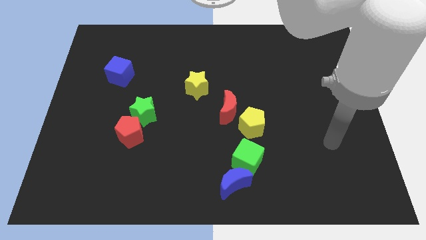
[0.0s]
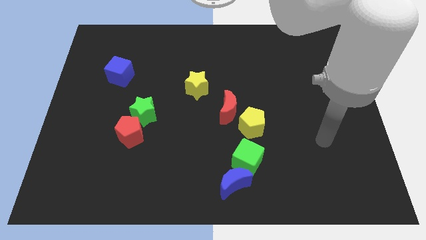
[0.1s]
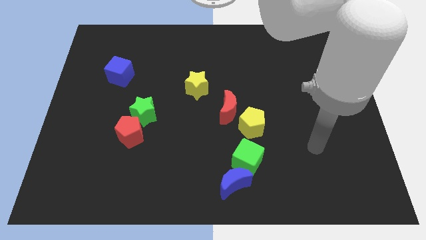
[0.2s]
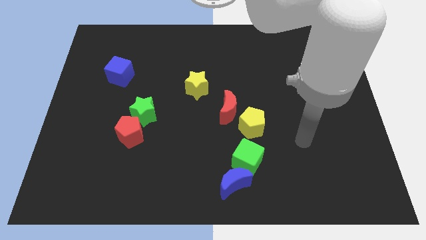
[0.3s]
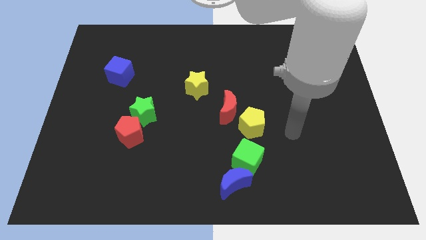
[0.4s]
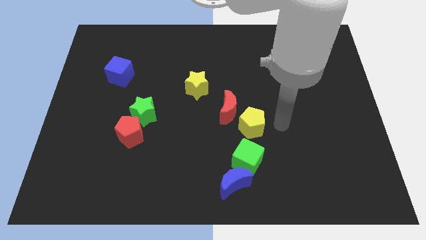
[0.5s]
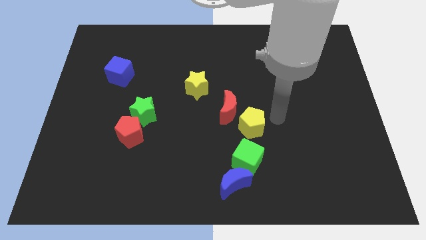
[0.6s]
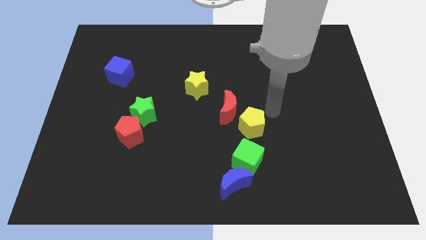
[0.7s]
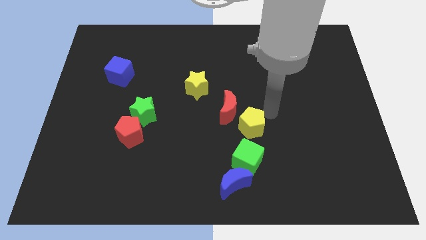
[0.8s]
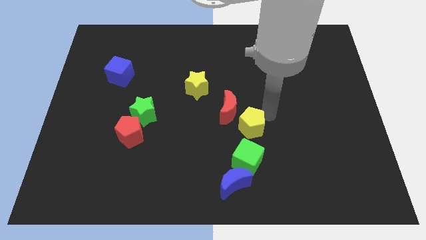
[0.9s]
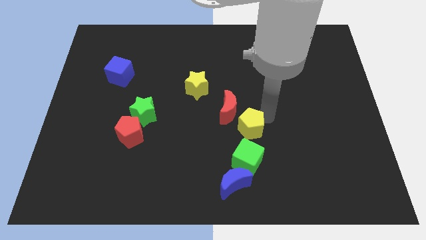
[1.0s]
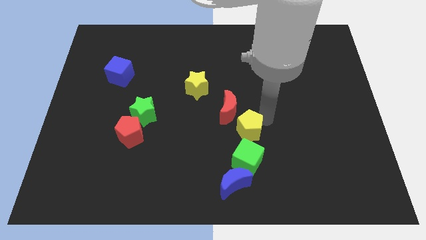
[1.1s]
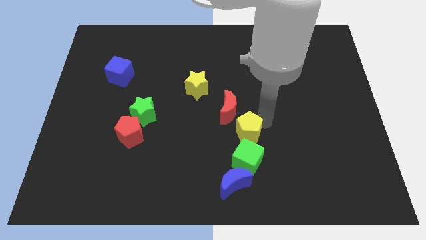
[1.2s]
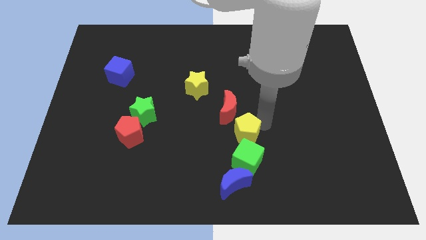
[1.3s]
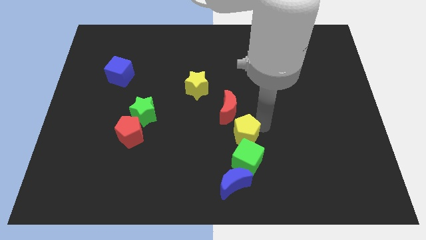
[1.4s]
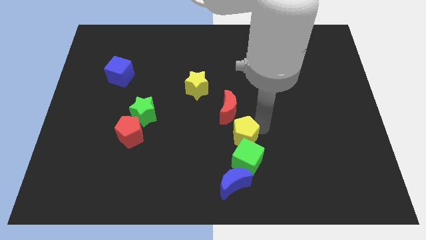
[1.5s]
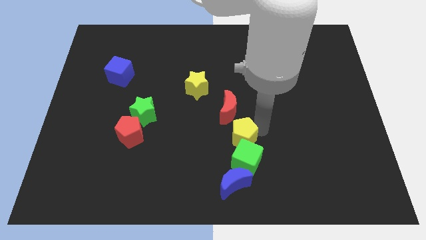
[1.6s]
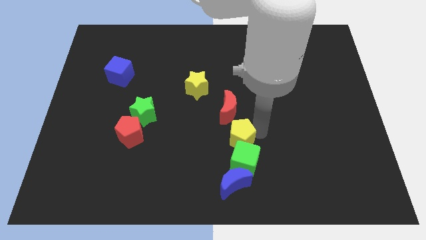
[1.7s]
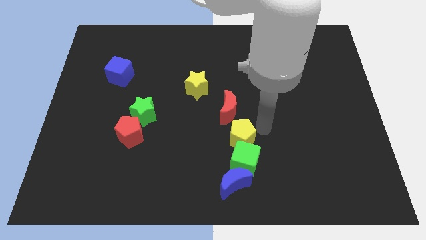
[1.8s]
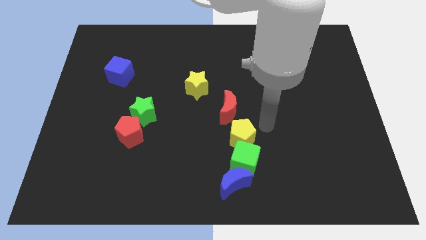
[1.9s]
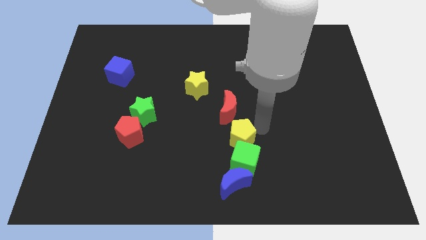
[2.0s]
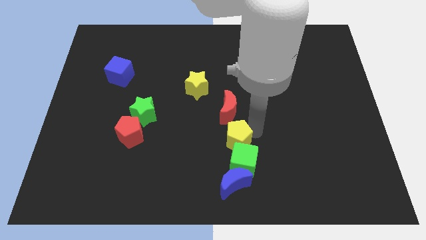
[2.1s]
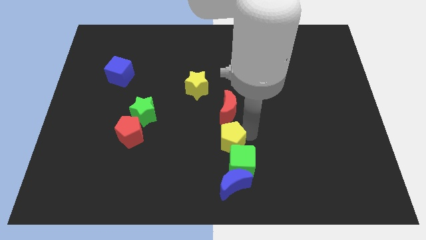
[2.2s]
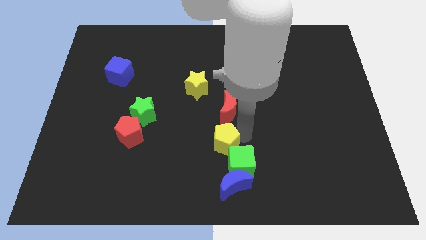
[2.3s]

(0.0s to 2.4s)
push the yellow pentagon a bit diagonally down and left

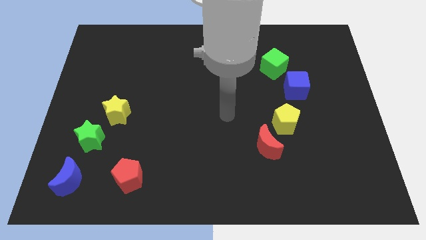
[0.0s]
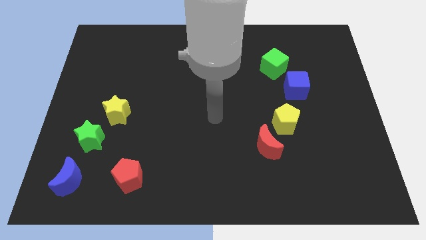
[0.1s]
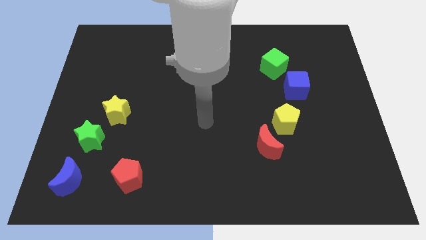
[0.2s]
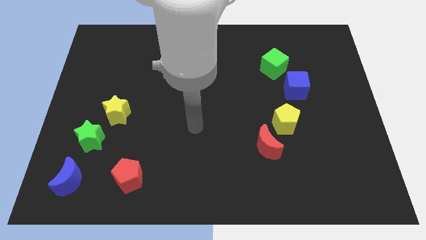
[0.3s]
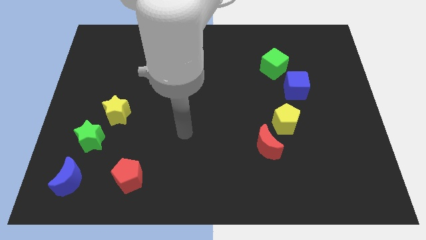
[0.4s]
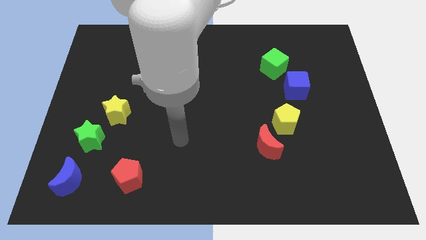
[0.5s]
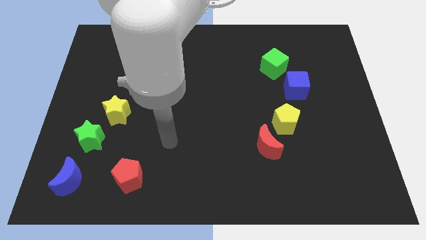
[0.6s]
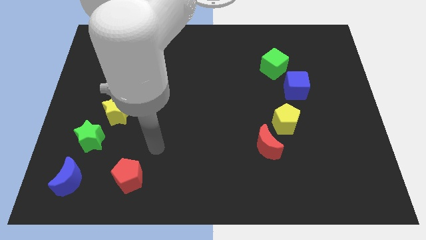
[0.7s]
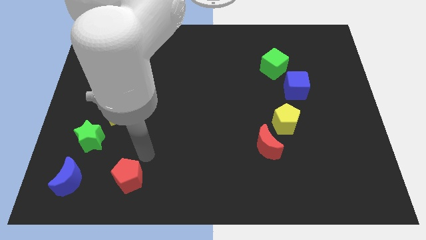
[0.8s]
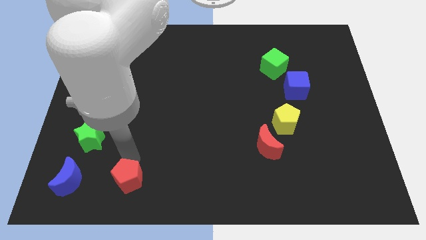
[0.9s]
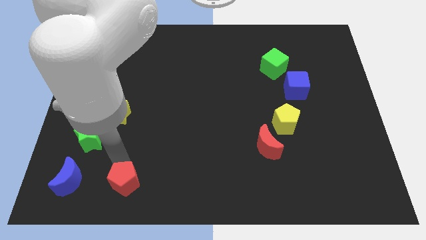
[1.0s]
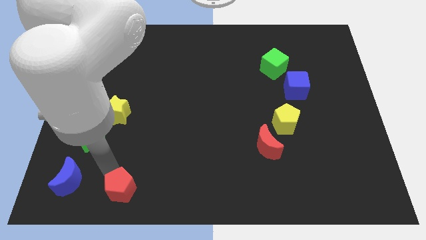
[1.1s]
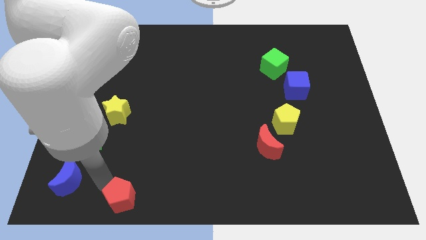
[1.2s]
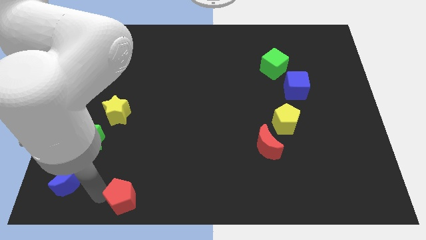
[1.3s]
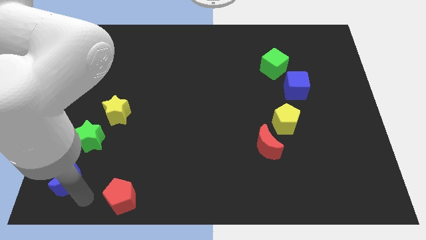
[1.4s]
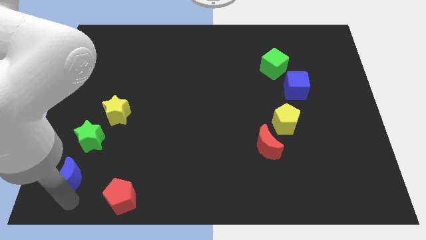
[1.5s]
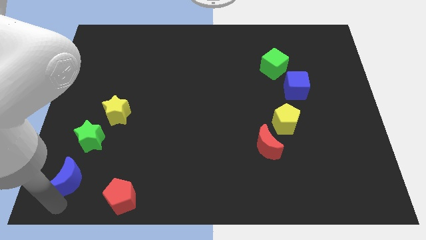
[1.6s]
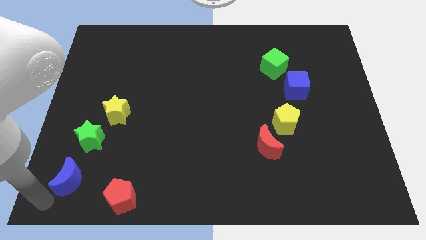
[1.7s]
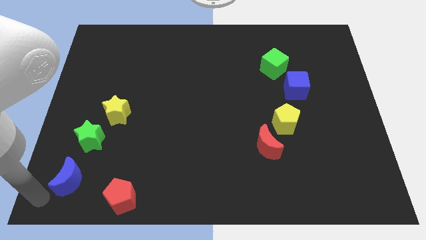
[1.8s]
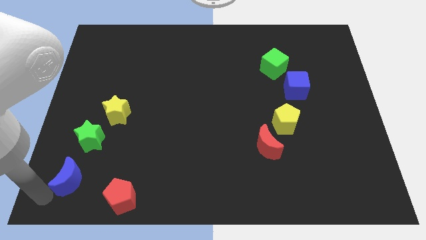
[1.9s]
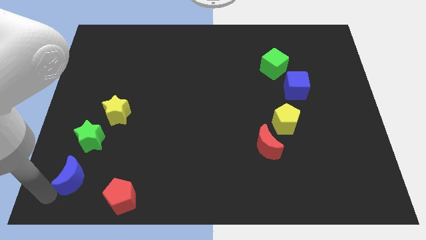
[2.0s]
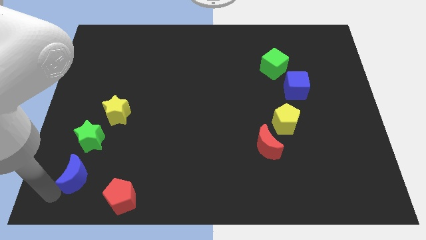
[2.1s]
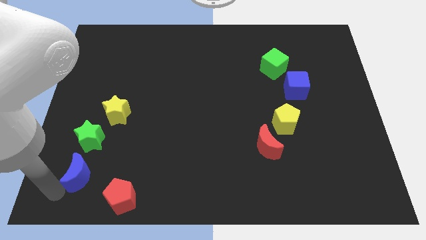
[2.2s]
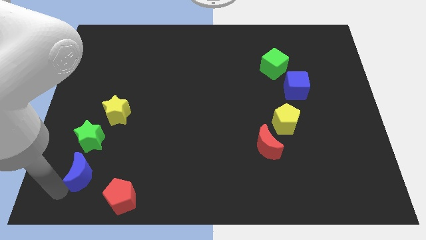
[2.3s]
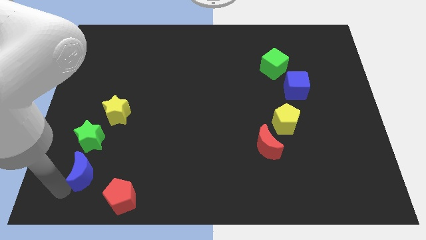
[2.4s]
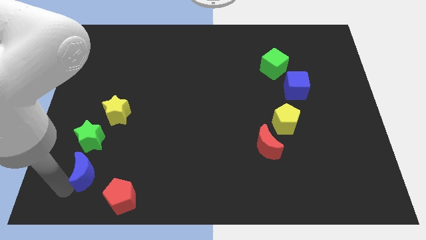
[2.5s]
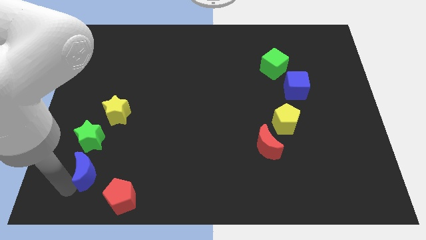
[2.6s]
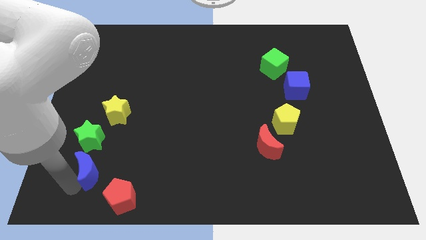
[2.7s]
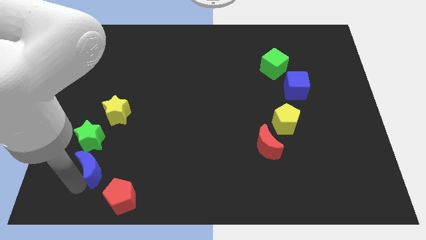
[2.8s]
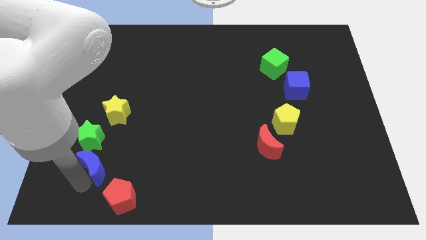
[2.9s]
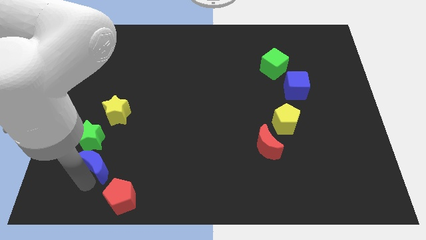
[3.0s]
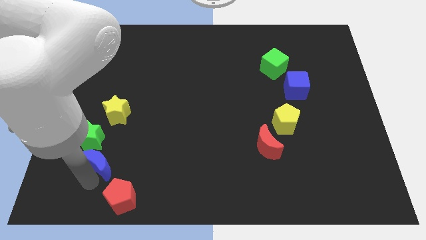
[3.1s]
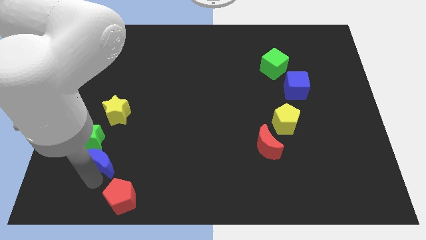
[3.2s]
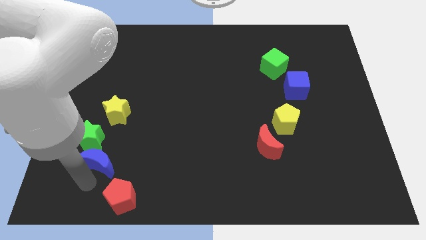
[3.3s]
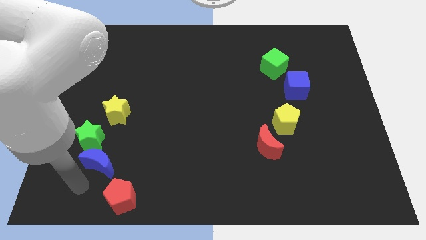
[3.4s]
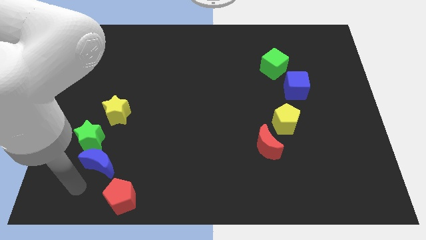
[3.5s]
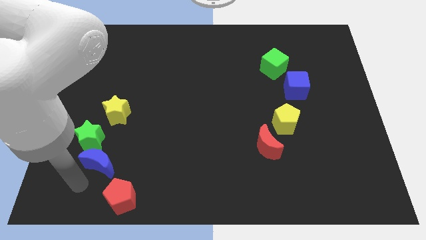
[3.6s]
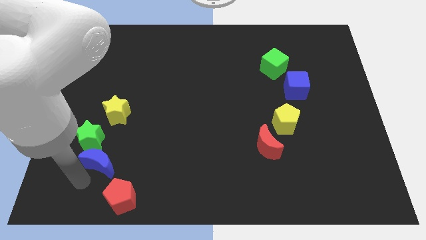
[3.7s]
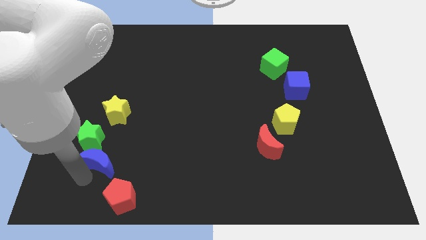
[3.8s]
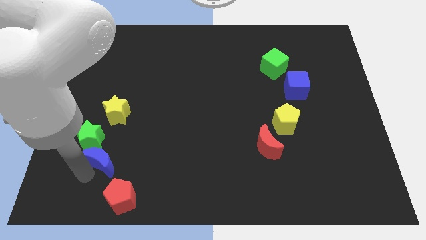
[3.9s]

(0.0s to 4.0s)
move the blue moon diagonally upwards and right a little

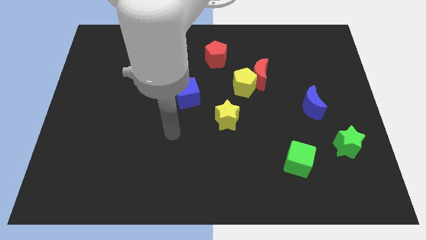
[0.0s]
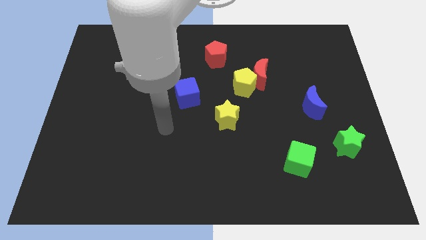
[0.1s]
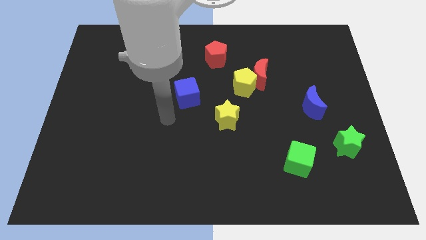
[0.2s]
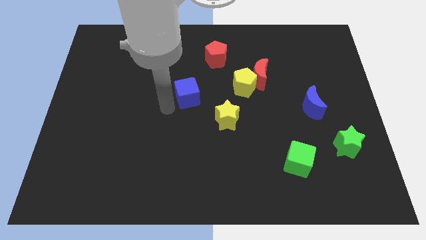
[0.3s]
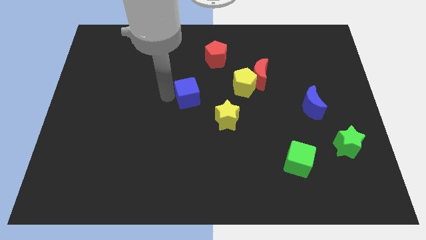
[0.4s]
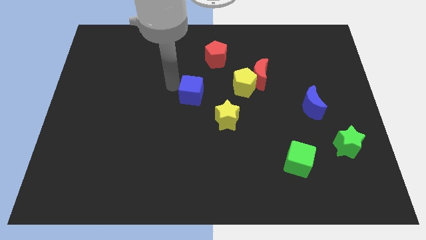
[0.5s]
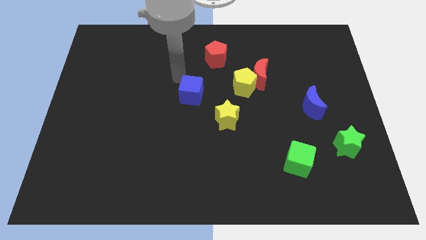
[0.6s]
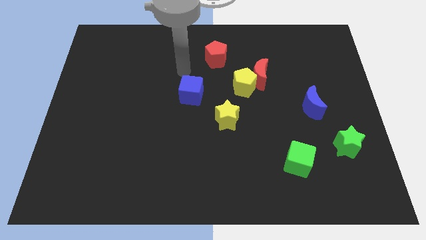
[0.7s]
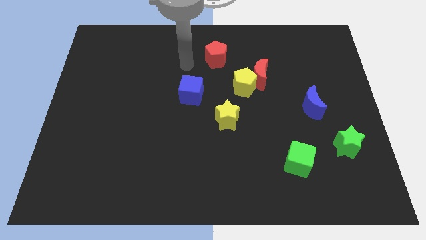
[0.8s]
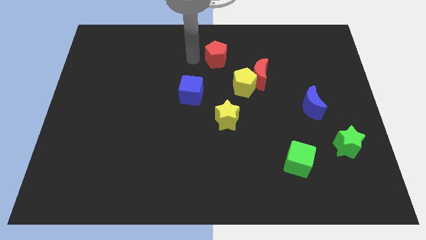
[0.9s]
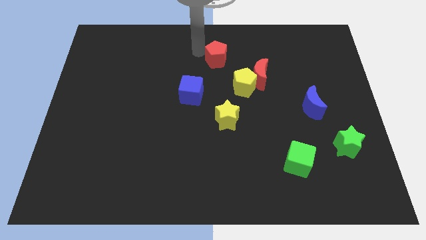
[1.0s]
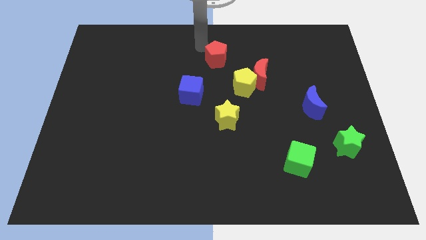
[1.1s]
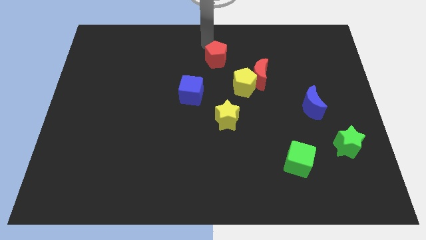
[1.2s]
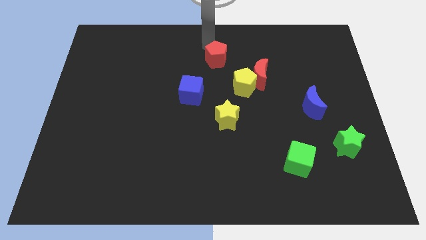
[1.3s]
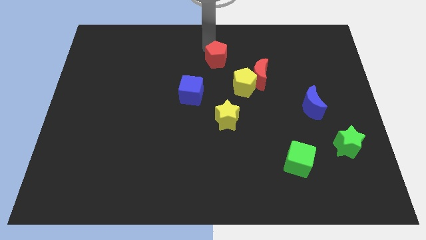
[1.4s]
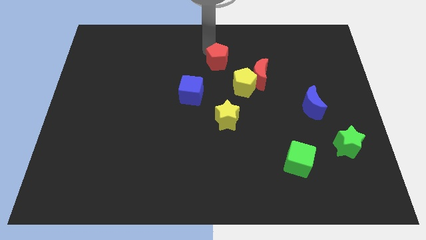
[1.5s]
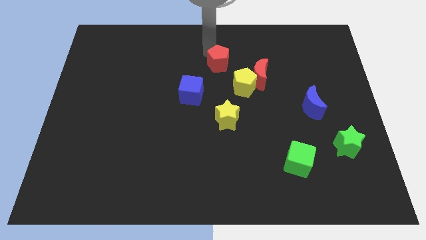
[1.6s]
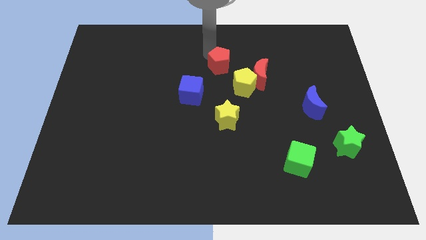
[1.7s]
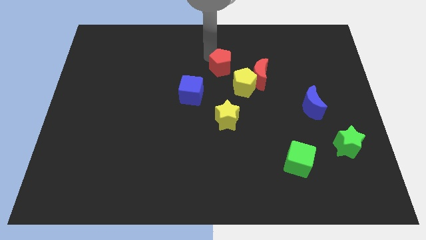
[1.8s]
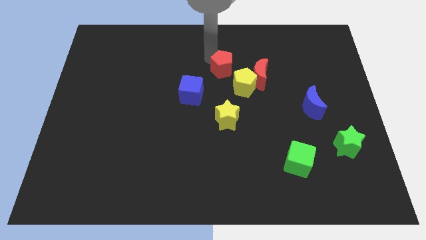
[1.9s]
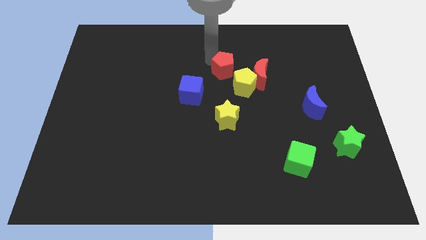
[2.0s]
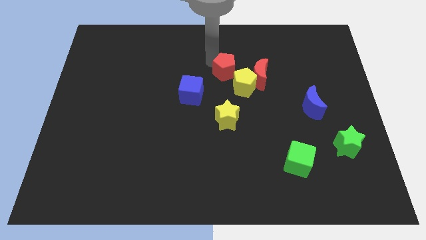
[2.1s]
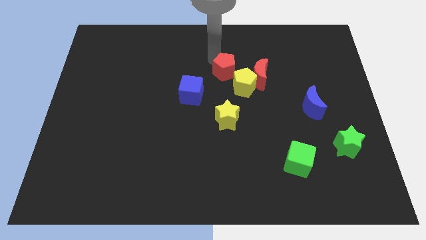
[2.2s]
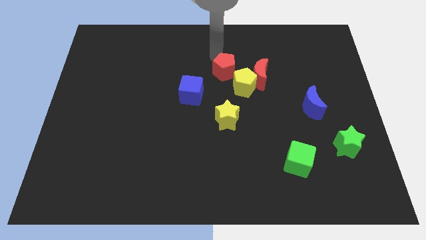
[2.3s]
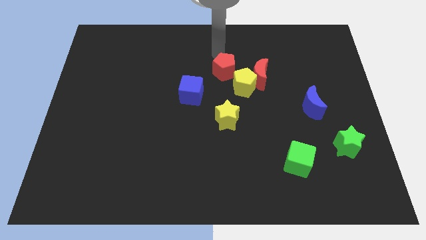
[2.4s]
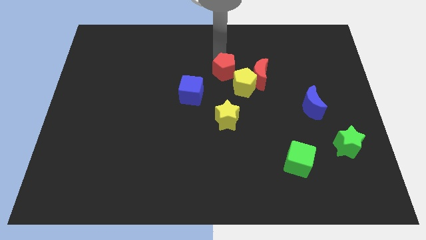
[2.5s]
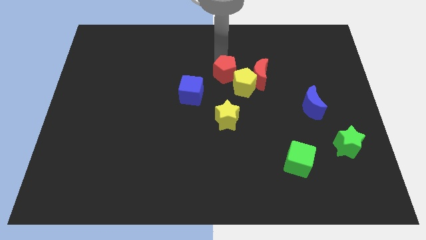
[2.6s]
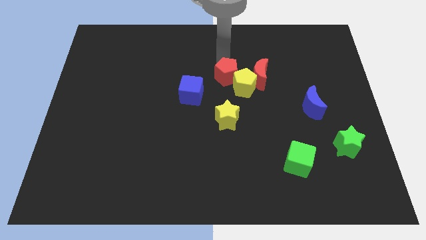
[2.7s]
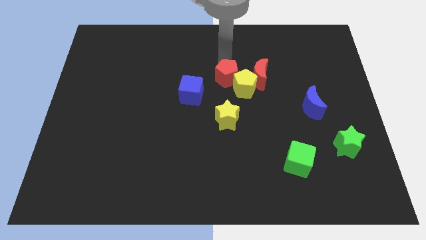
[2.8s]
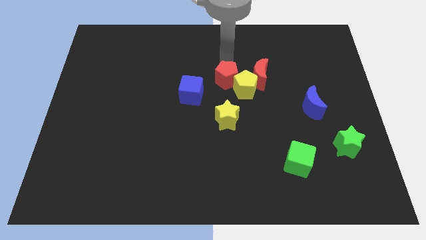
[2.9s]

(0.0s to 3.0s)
slightly slide the red pentagon down and to the right
